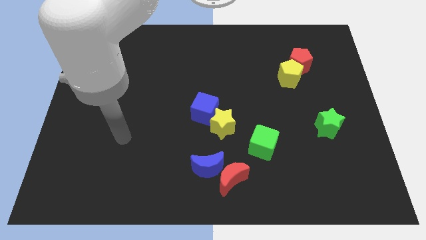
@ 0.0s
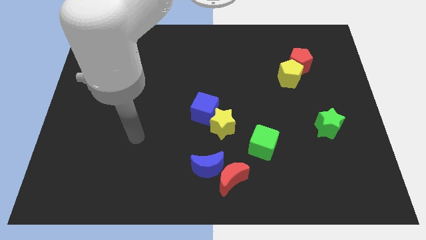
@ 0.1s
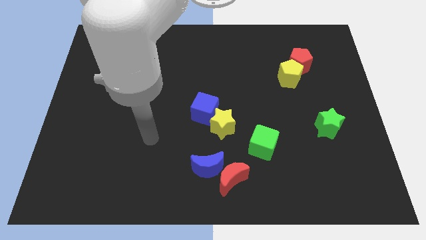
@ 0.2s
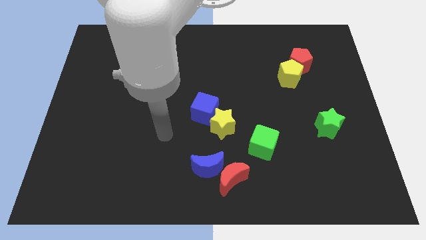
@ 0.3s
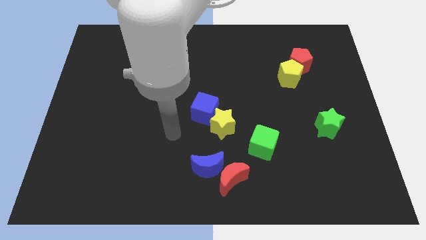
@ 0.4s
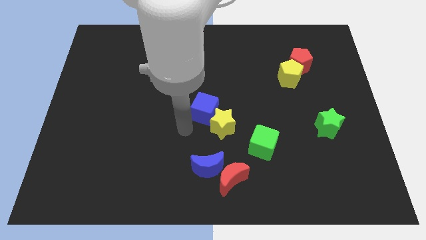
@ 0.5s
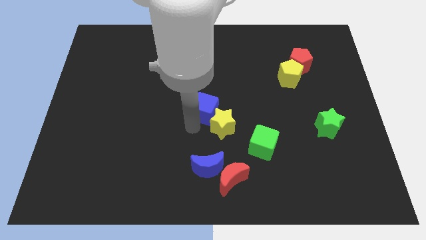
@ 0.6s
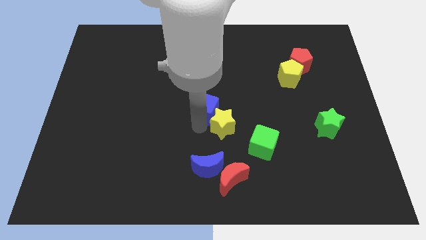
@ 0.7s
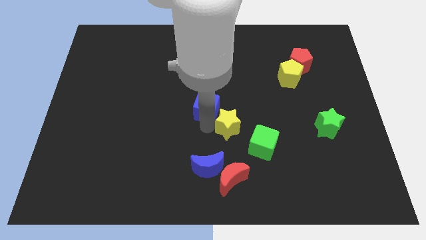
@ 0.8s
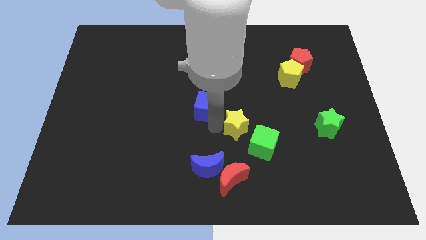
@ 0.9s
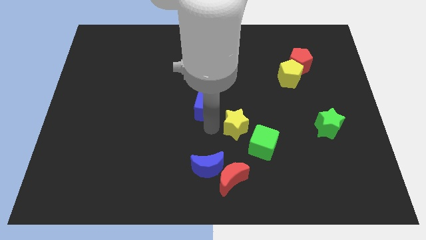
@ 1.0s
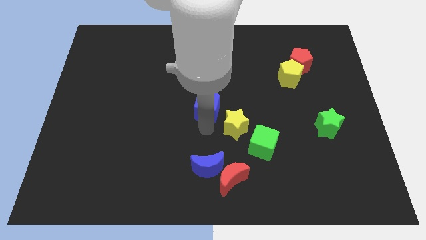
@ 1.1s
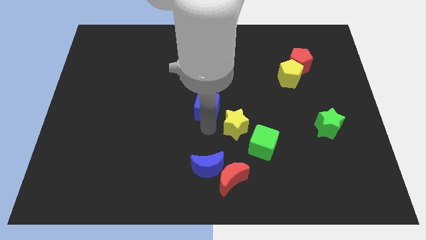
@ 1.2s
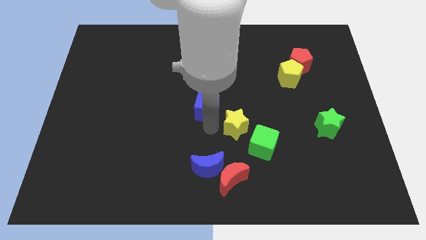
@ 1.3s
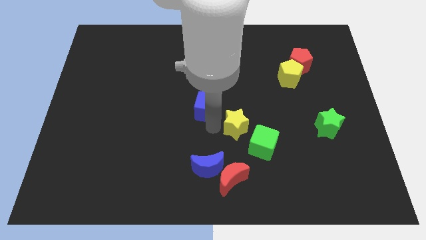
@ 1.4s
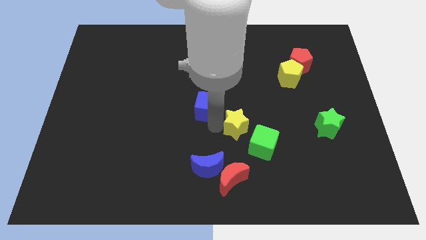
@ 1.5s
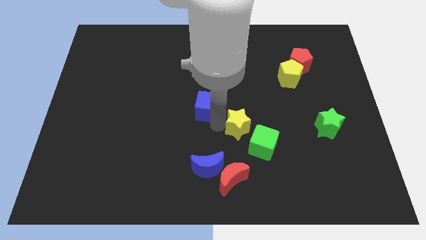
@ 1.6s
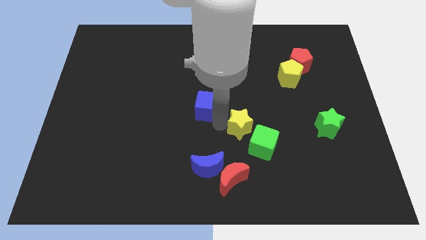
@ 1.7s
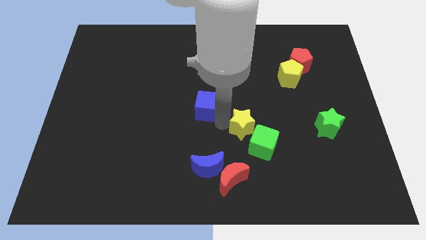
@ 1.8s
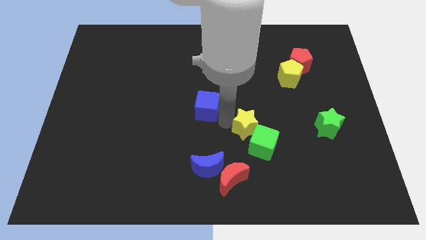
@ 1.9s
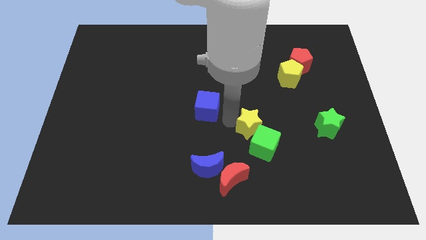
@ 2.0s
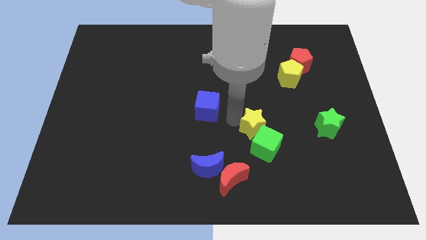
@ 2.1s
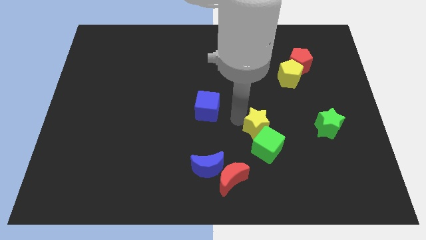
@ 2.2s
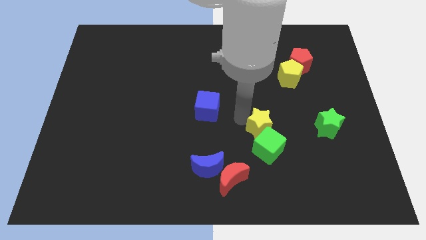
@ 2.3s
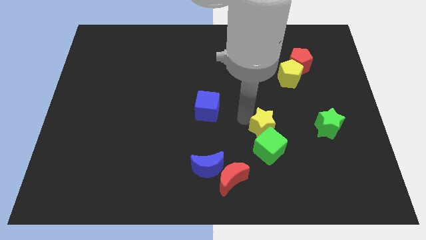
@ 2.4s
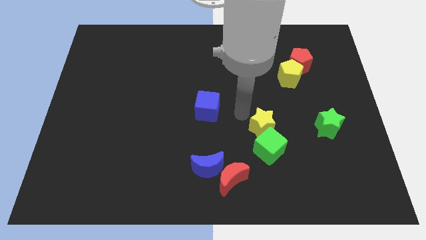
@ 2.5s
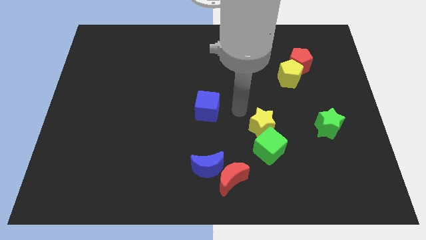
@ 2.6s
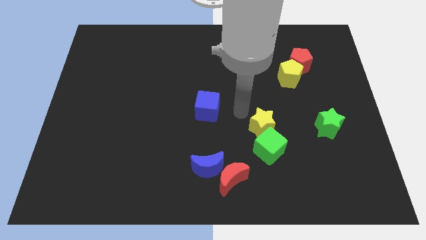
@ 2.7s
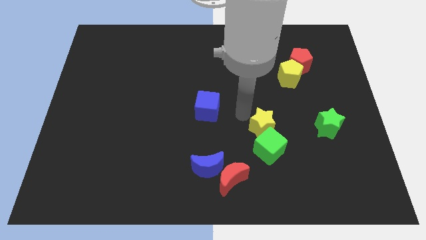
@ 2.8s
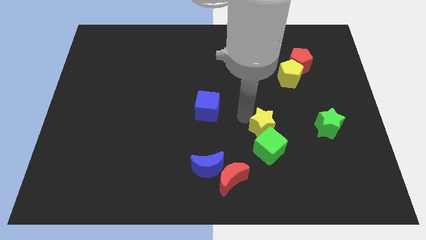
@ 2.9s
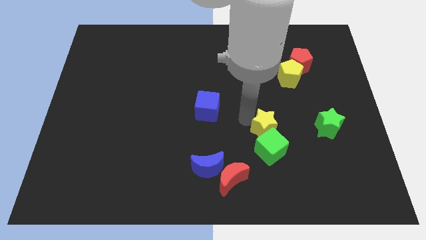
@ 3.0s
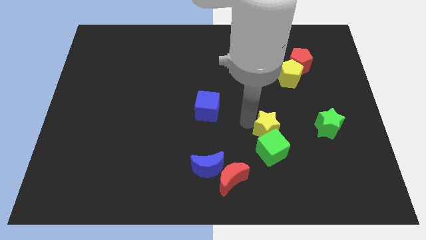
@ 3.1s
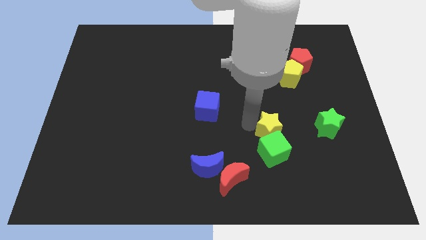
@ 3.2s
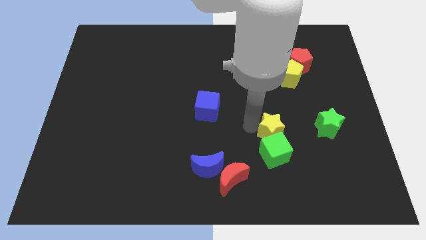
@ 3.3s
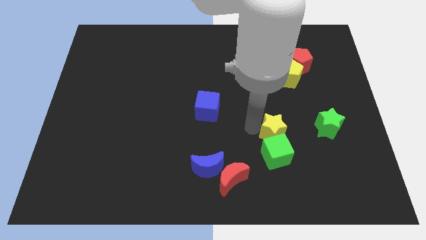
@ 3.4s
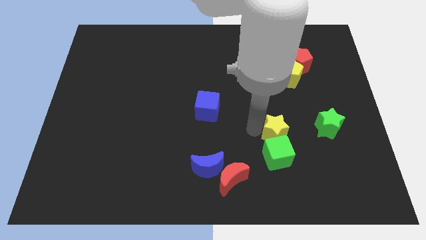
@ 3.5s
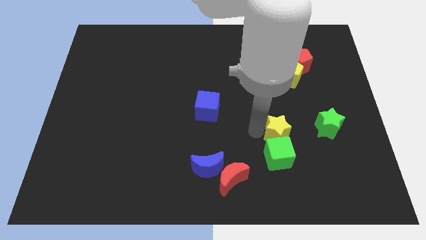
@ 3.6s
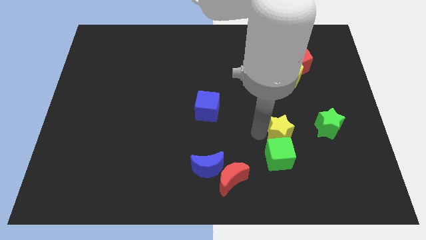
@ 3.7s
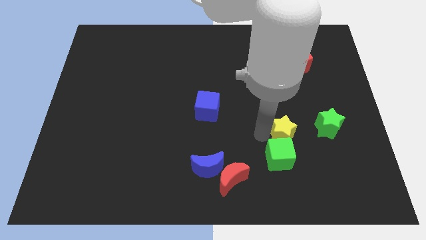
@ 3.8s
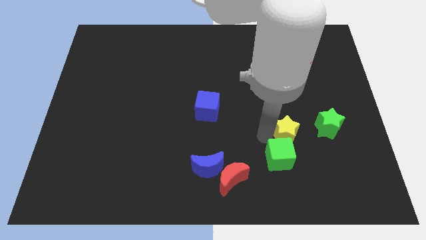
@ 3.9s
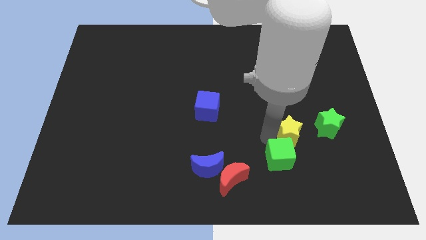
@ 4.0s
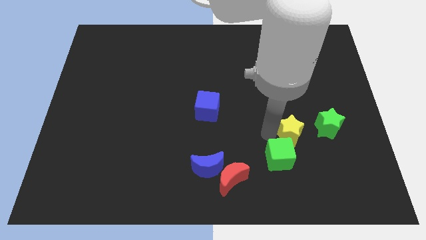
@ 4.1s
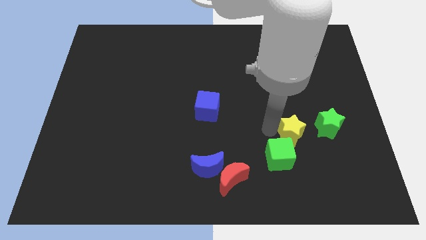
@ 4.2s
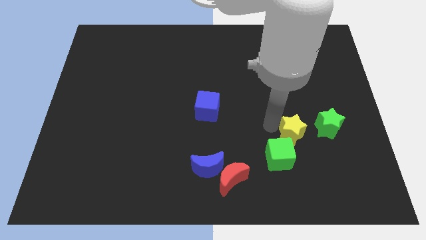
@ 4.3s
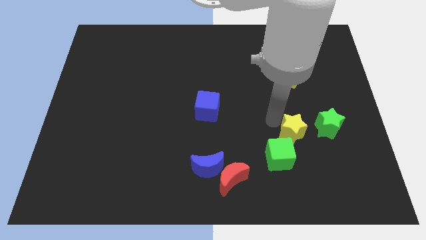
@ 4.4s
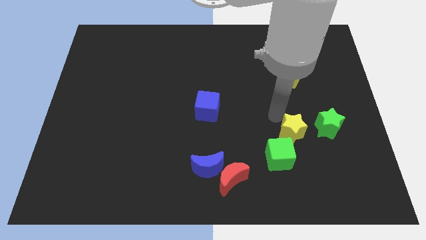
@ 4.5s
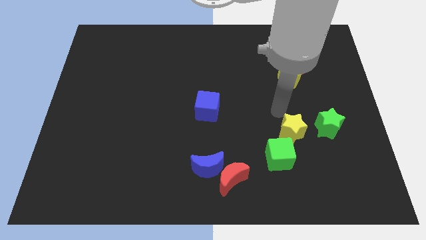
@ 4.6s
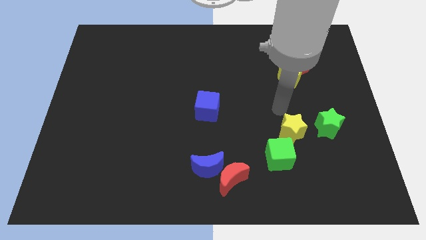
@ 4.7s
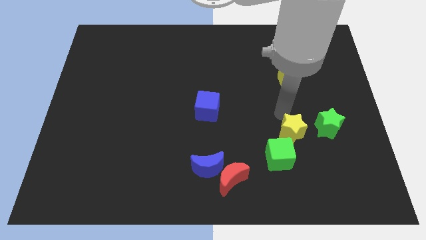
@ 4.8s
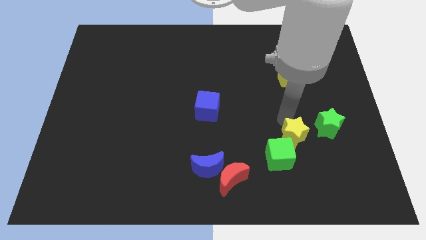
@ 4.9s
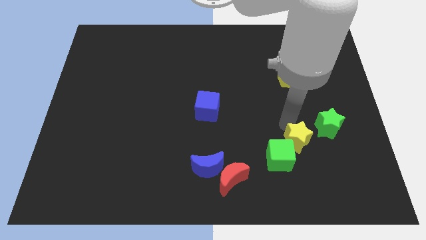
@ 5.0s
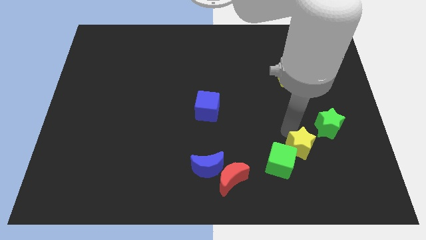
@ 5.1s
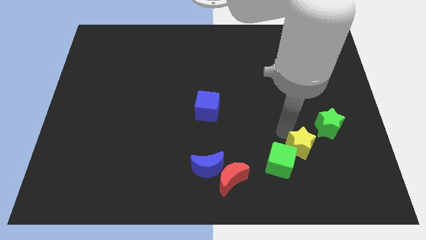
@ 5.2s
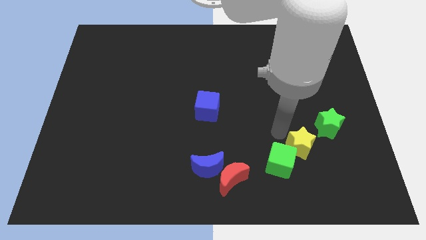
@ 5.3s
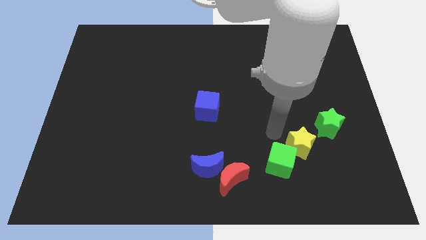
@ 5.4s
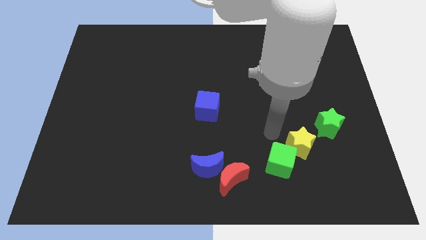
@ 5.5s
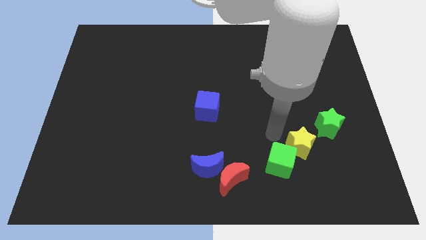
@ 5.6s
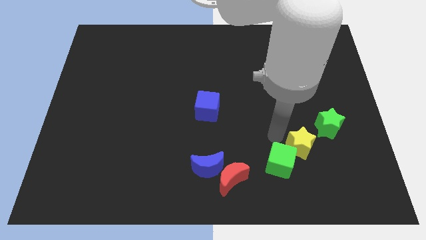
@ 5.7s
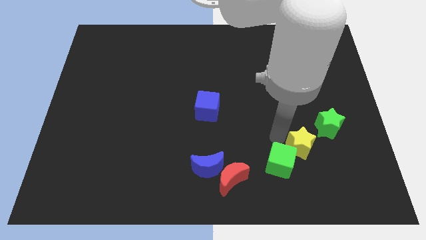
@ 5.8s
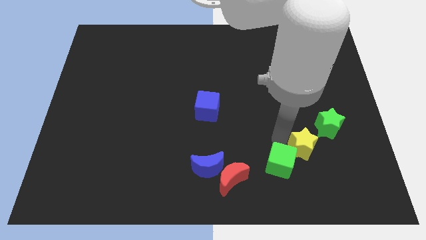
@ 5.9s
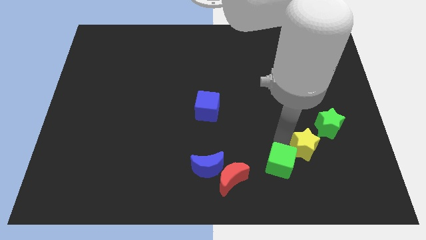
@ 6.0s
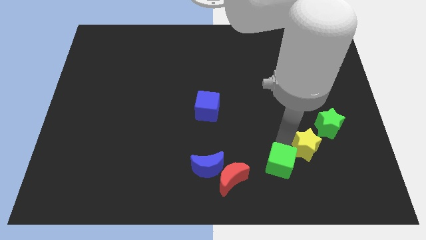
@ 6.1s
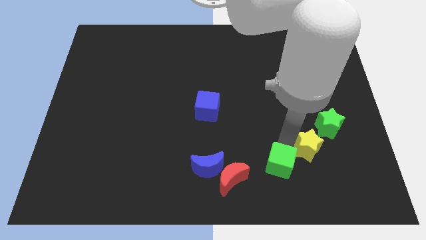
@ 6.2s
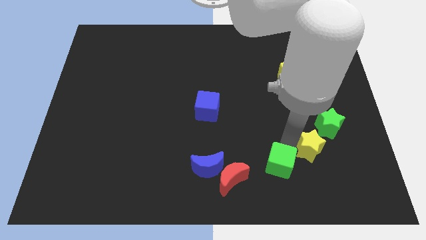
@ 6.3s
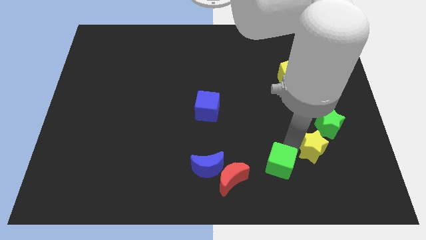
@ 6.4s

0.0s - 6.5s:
put the yellow star to the bottom of the green star
